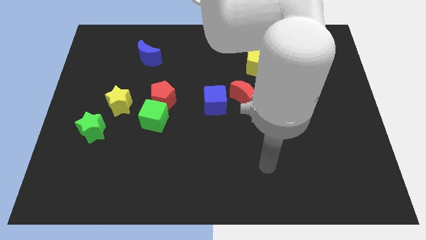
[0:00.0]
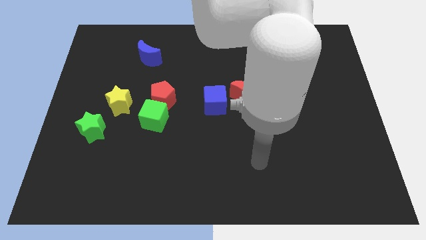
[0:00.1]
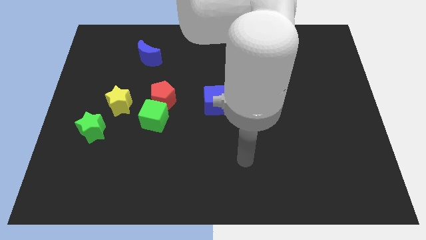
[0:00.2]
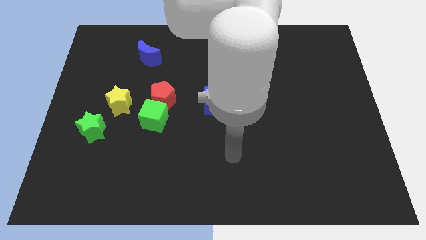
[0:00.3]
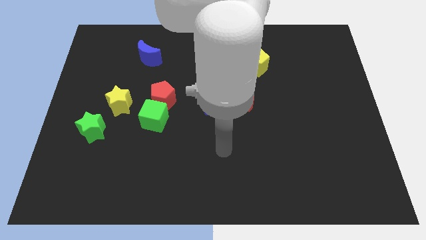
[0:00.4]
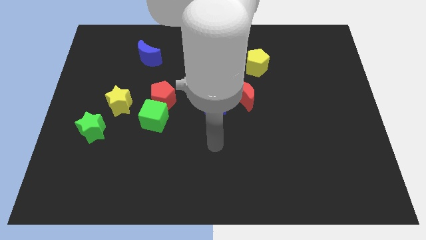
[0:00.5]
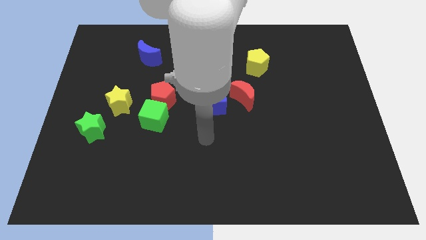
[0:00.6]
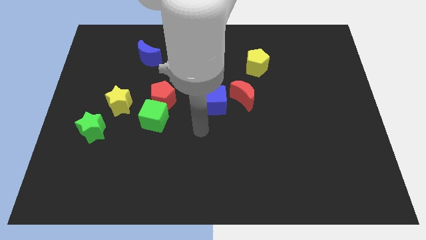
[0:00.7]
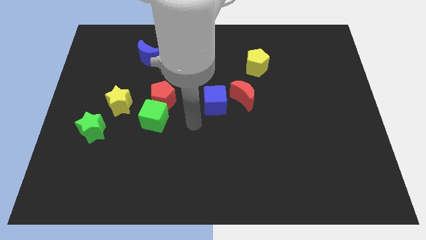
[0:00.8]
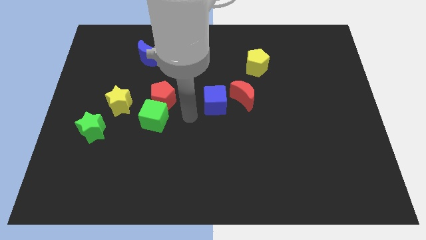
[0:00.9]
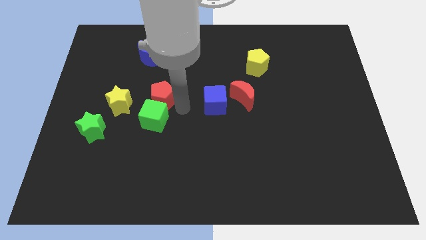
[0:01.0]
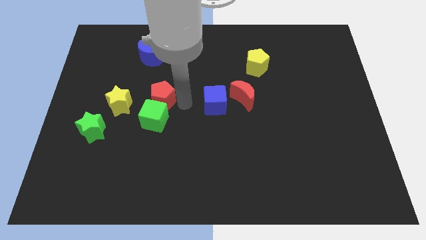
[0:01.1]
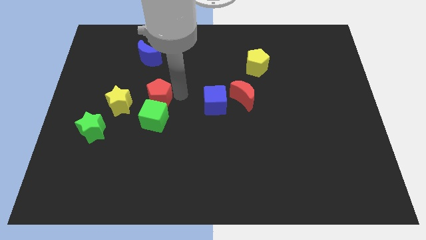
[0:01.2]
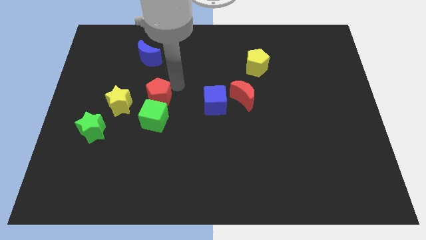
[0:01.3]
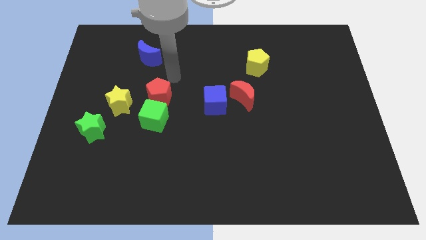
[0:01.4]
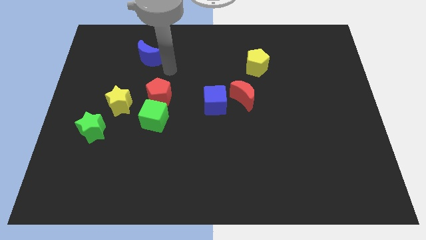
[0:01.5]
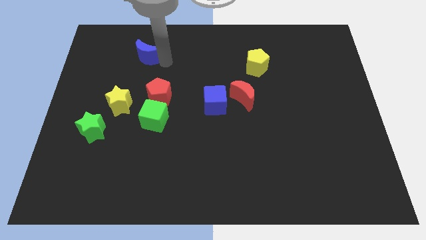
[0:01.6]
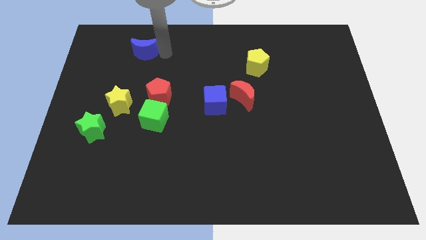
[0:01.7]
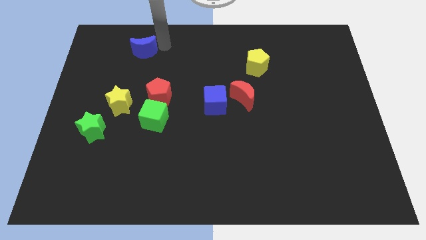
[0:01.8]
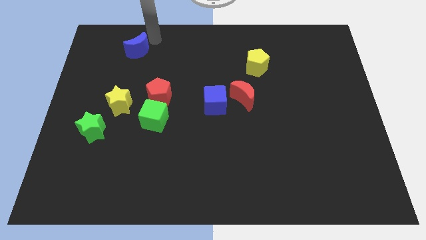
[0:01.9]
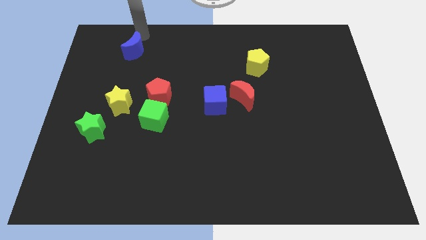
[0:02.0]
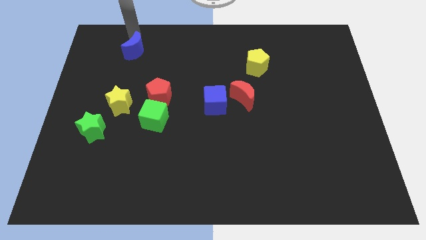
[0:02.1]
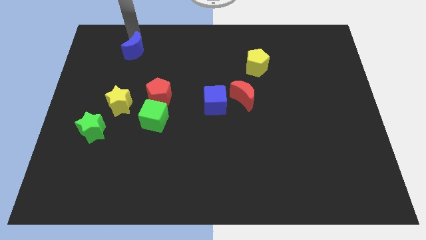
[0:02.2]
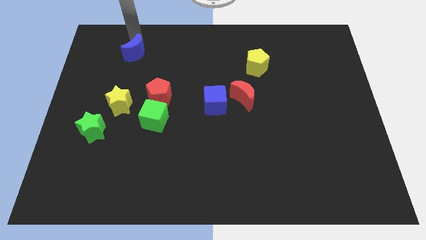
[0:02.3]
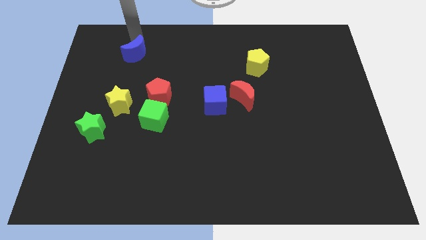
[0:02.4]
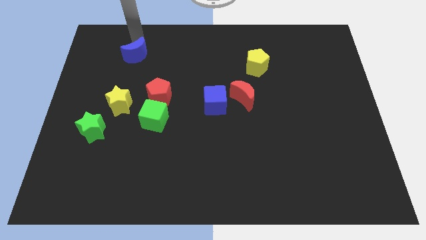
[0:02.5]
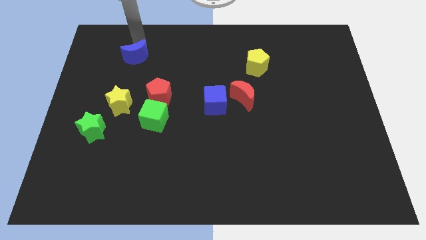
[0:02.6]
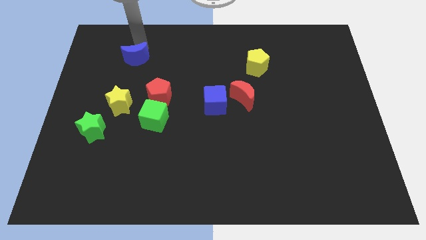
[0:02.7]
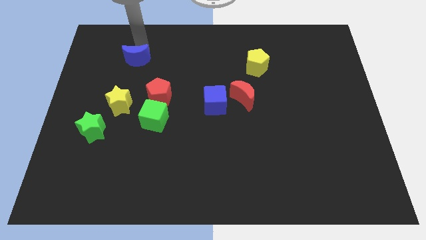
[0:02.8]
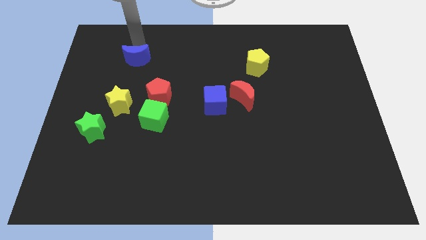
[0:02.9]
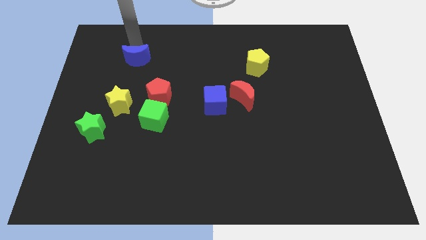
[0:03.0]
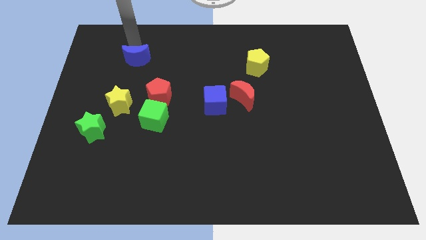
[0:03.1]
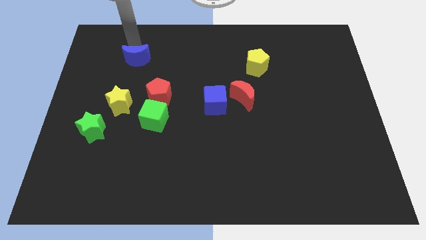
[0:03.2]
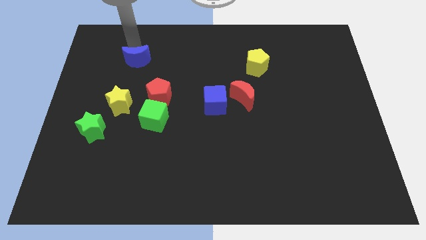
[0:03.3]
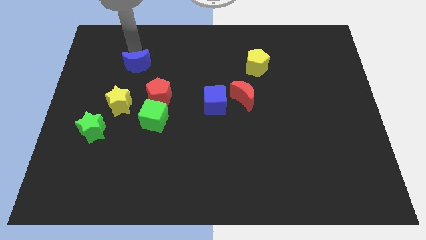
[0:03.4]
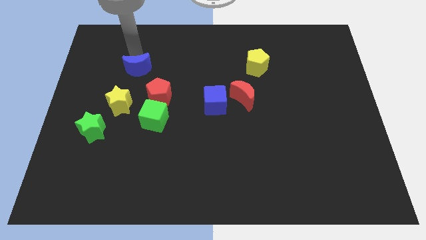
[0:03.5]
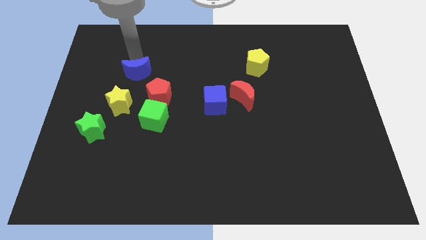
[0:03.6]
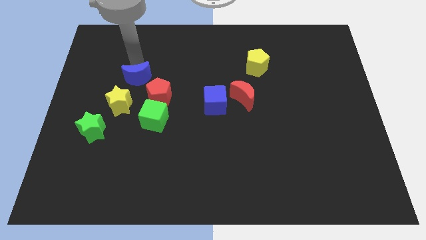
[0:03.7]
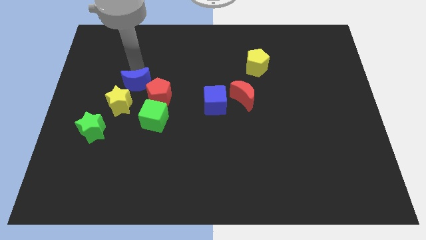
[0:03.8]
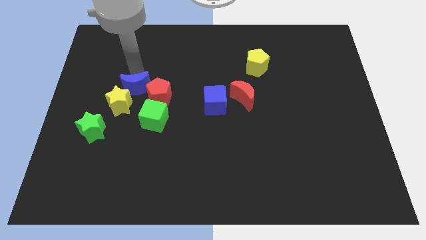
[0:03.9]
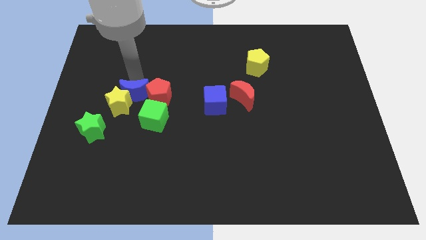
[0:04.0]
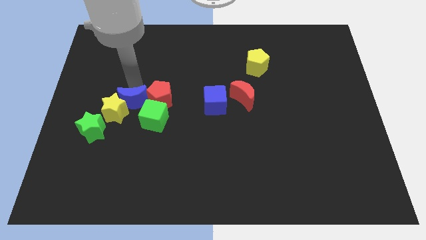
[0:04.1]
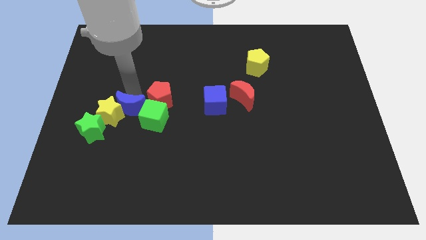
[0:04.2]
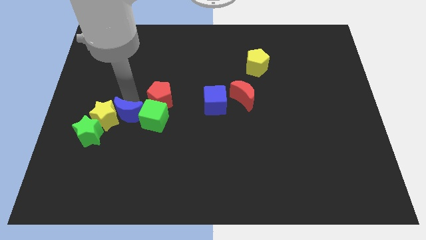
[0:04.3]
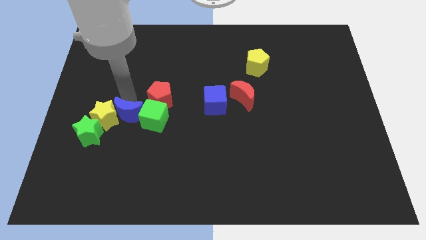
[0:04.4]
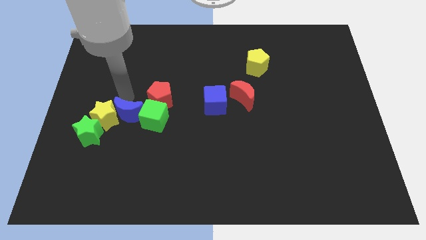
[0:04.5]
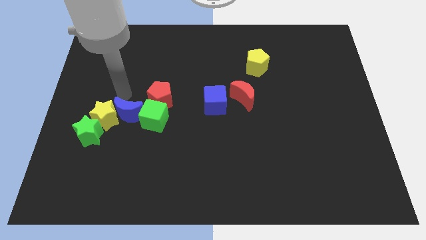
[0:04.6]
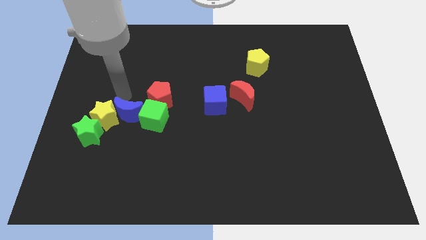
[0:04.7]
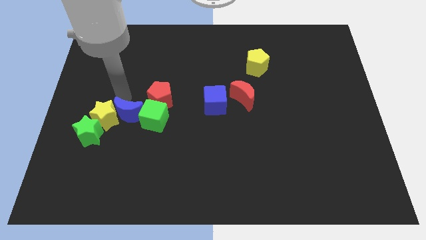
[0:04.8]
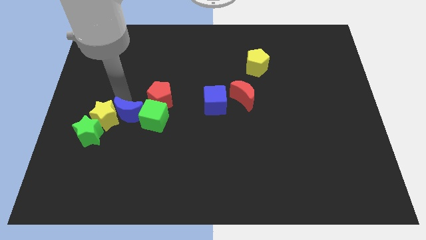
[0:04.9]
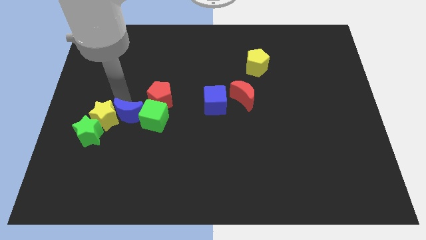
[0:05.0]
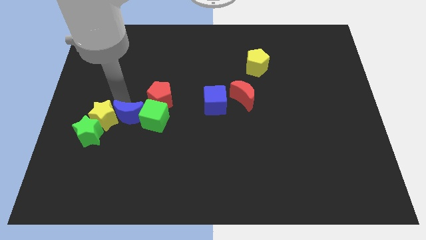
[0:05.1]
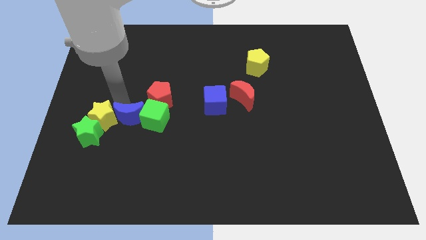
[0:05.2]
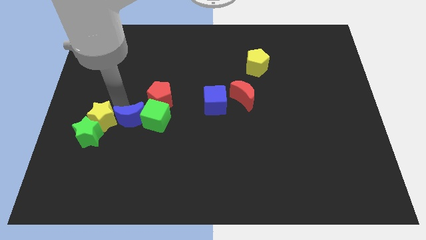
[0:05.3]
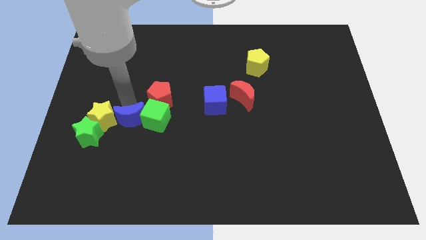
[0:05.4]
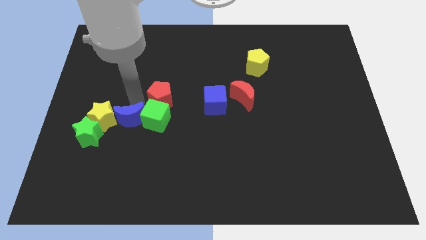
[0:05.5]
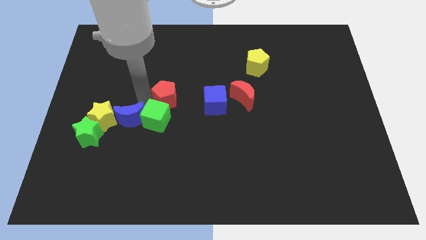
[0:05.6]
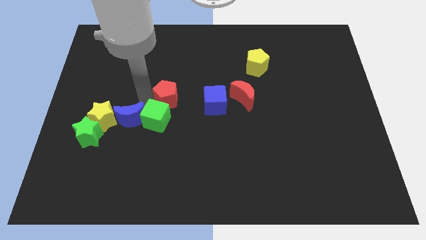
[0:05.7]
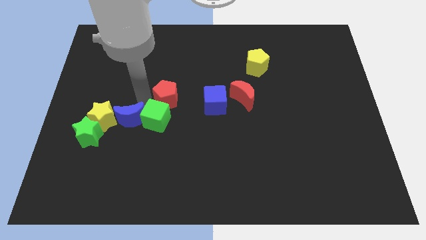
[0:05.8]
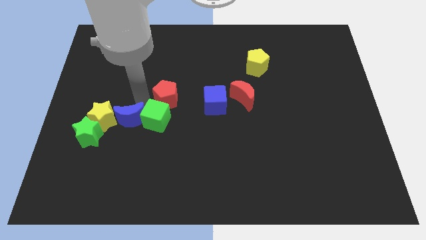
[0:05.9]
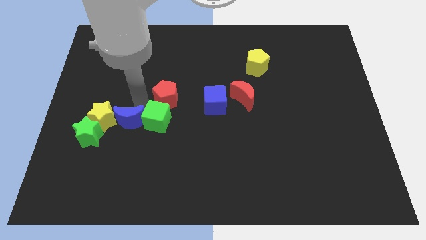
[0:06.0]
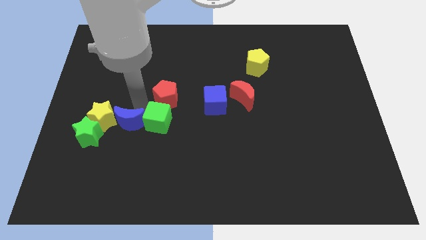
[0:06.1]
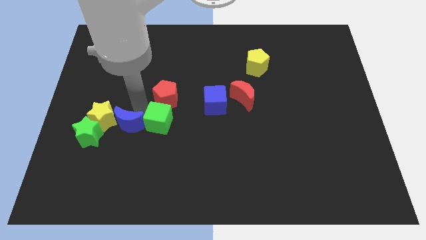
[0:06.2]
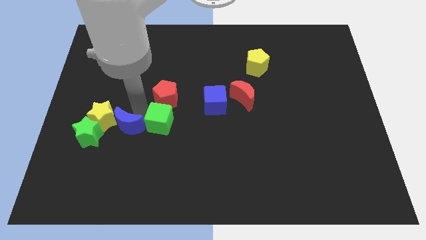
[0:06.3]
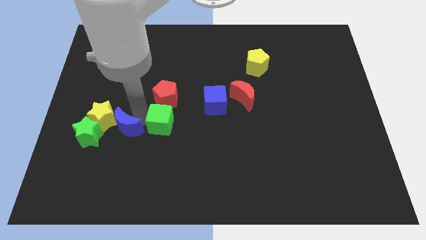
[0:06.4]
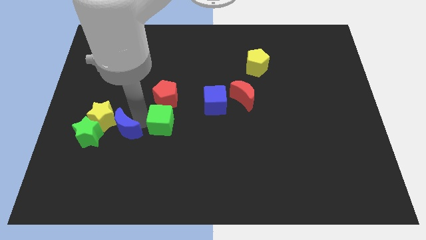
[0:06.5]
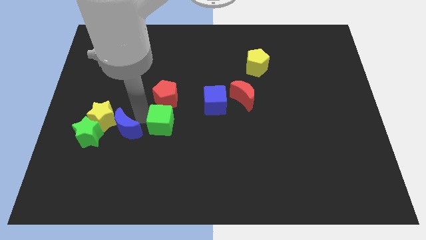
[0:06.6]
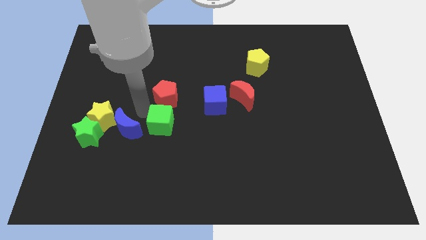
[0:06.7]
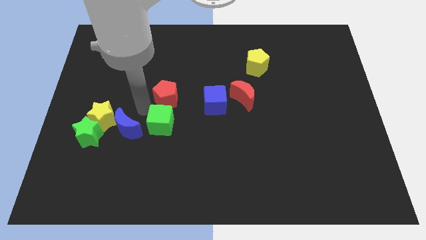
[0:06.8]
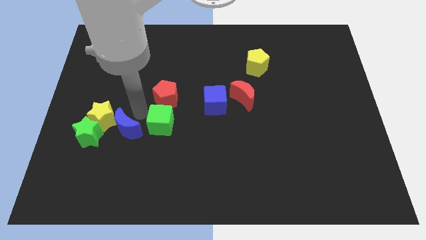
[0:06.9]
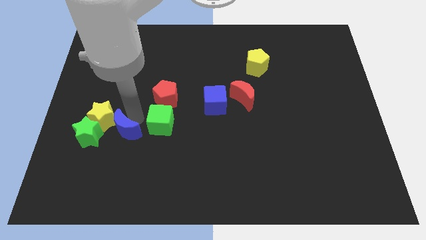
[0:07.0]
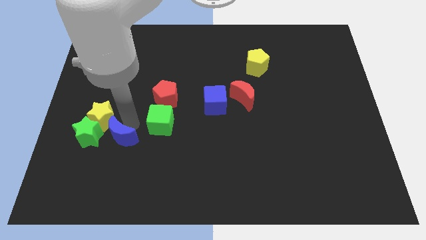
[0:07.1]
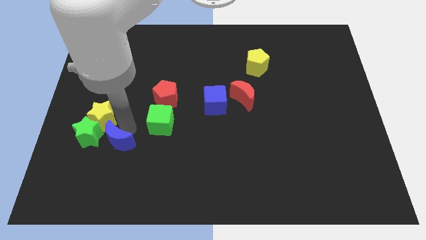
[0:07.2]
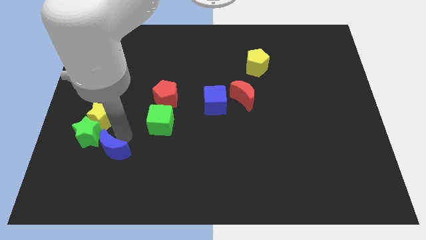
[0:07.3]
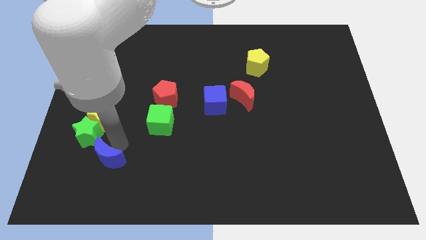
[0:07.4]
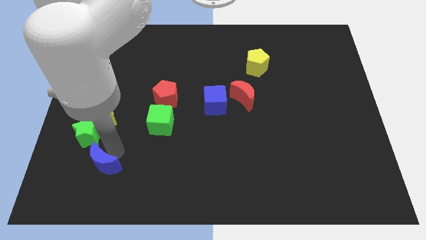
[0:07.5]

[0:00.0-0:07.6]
put the blue moon below the green star

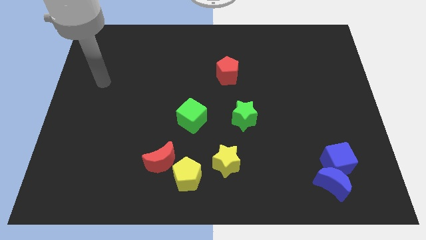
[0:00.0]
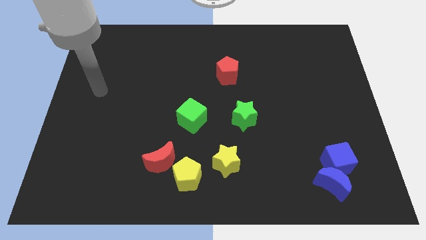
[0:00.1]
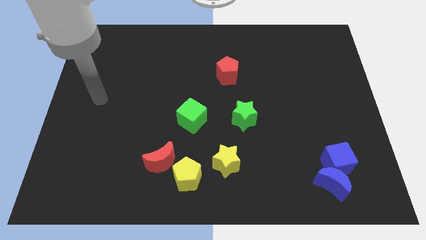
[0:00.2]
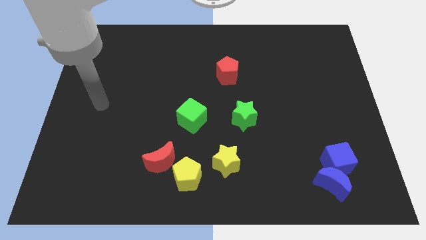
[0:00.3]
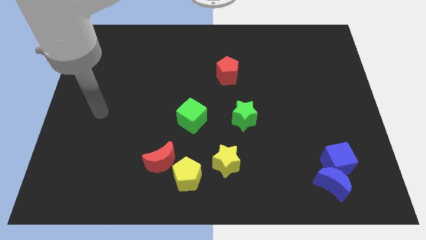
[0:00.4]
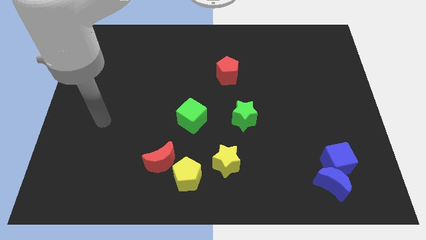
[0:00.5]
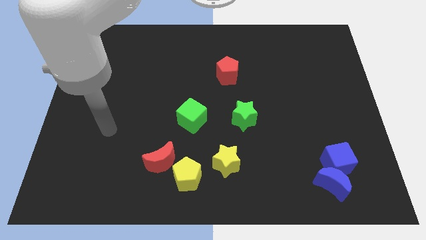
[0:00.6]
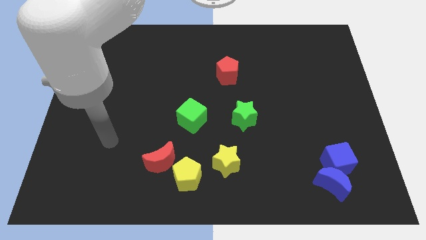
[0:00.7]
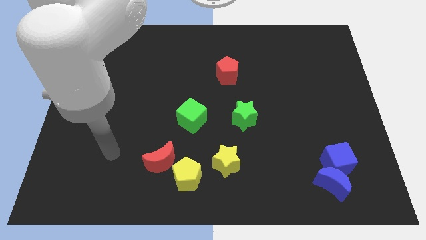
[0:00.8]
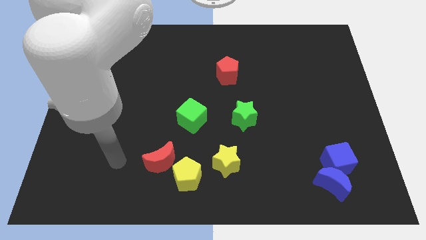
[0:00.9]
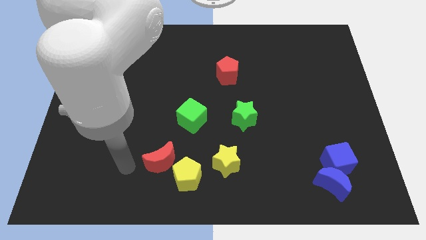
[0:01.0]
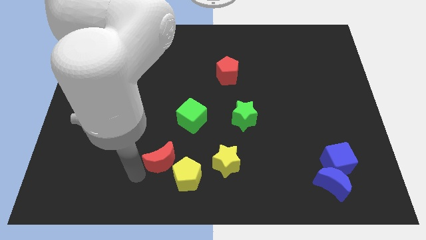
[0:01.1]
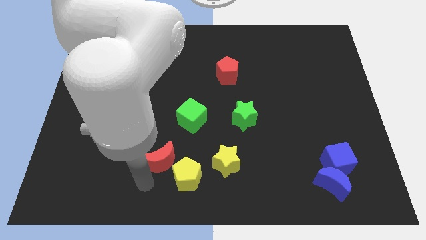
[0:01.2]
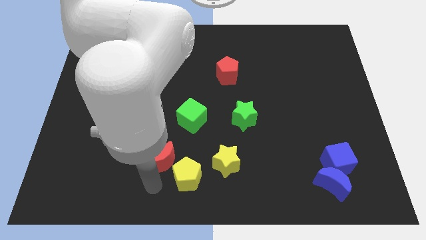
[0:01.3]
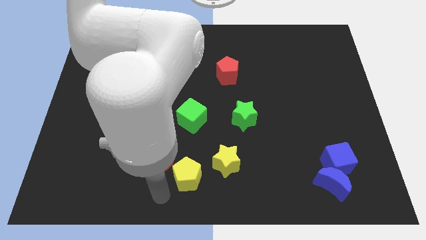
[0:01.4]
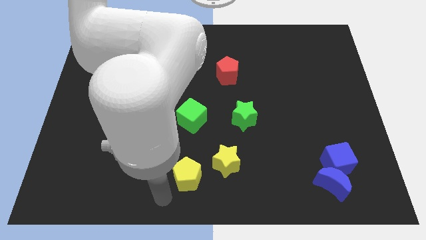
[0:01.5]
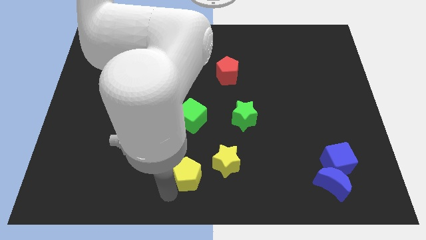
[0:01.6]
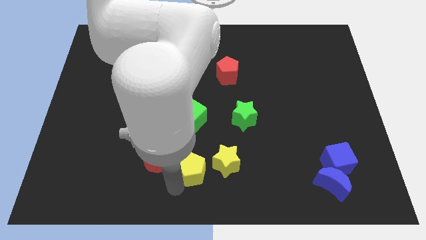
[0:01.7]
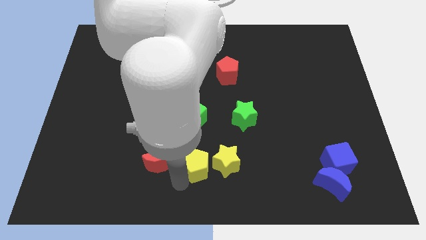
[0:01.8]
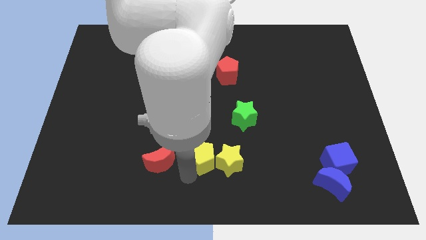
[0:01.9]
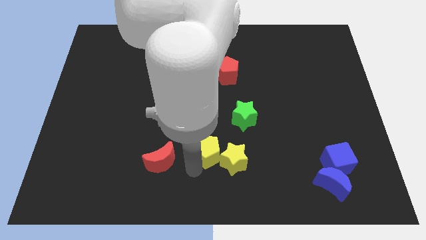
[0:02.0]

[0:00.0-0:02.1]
push the yellow pentagon to the bottom left of the green star
